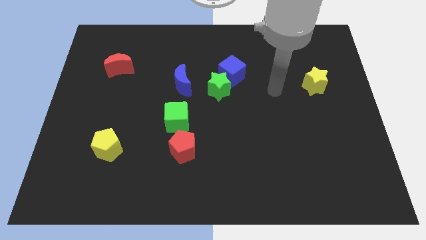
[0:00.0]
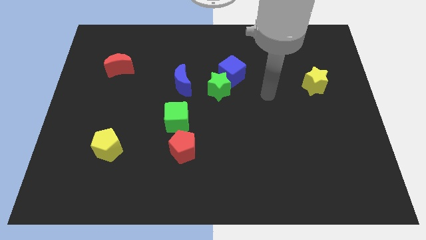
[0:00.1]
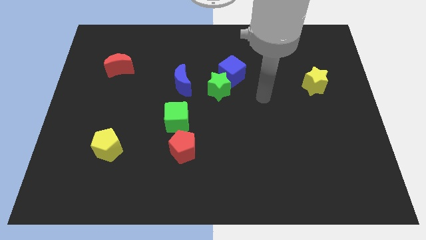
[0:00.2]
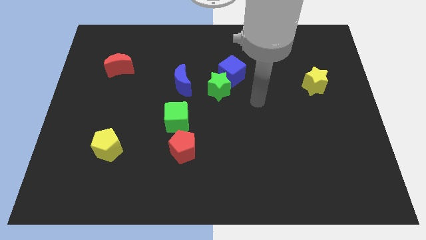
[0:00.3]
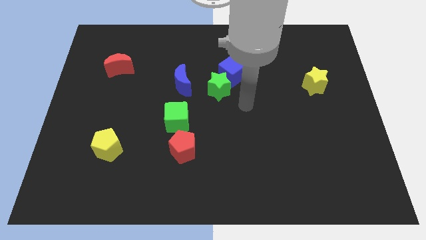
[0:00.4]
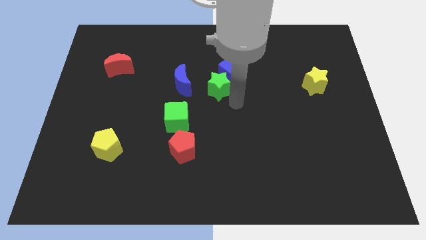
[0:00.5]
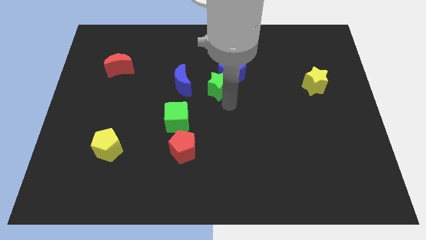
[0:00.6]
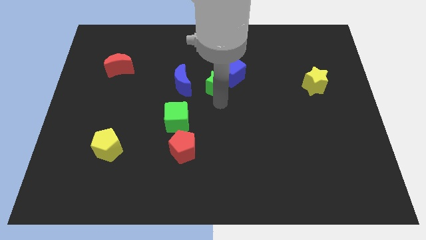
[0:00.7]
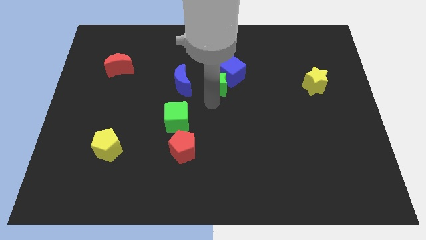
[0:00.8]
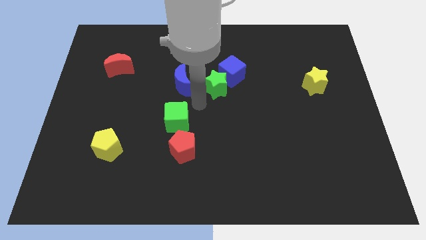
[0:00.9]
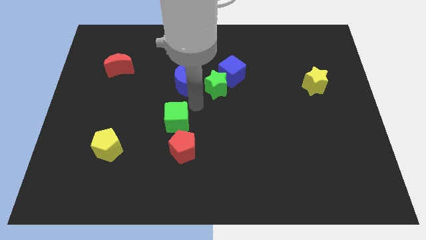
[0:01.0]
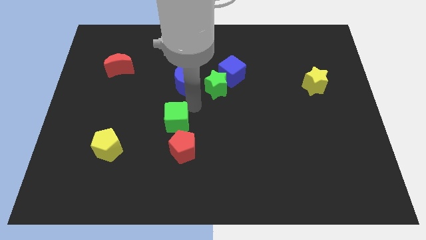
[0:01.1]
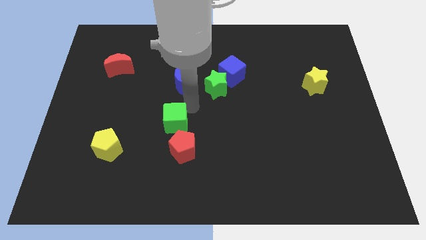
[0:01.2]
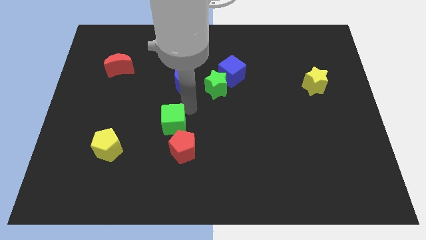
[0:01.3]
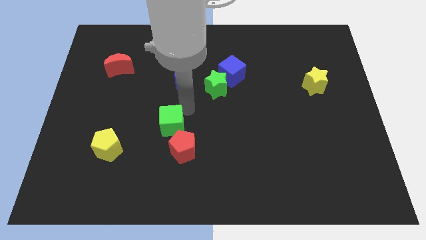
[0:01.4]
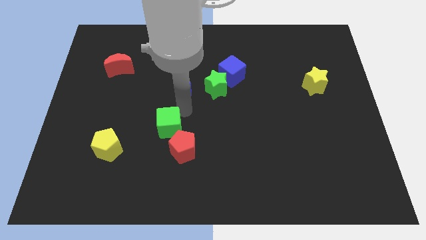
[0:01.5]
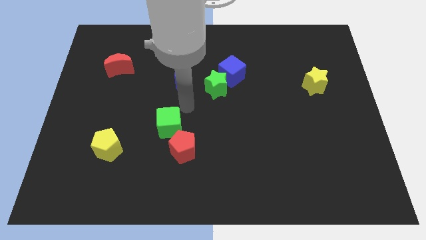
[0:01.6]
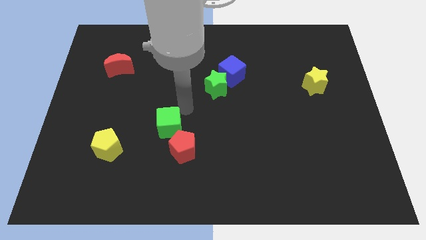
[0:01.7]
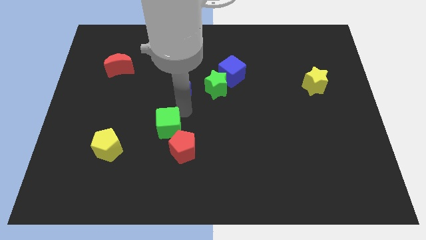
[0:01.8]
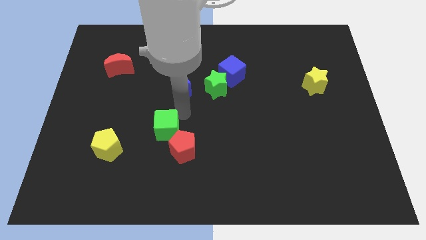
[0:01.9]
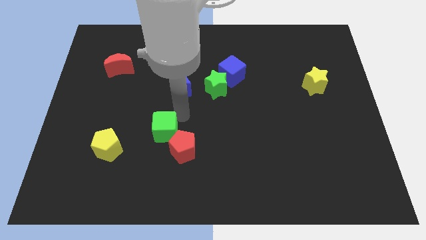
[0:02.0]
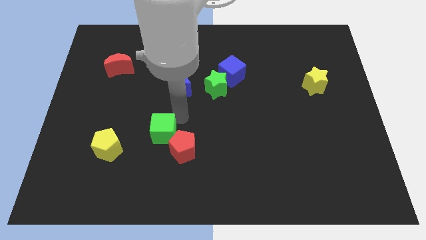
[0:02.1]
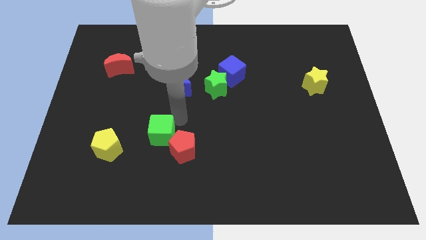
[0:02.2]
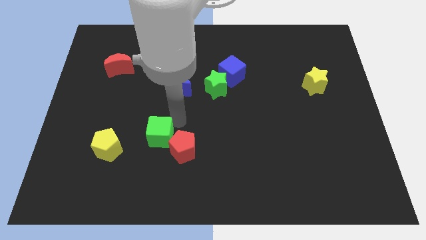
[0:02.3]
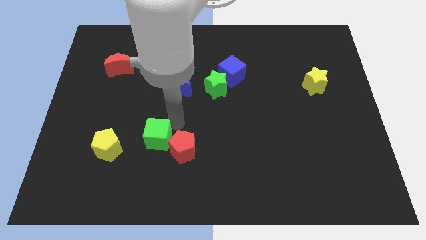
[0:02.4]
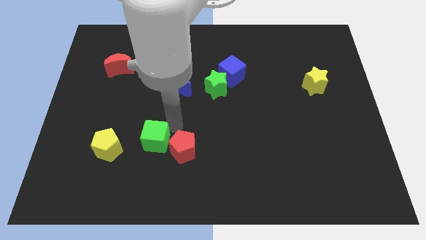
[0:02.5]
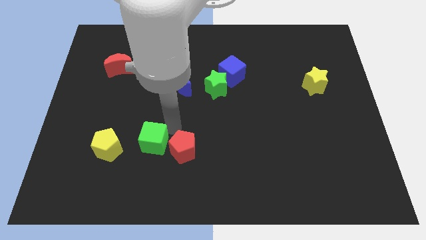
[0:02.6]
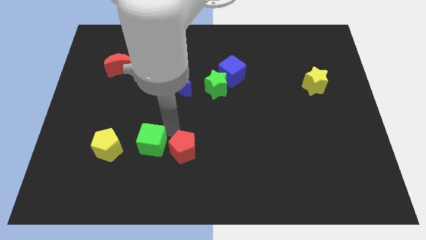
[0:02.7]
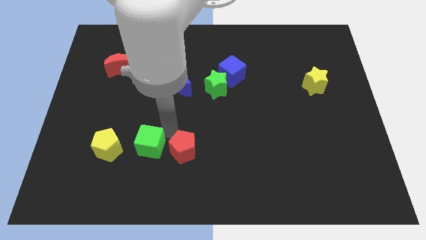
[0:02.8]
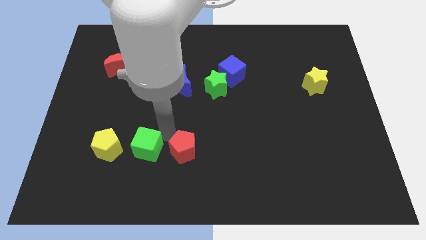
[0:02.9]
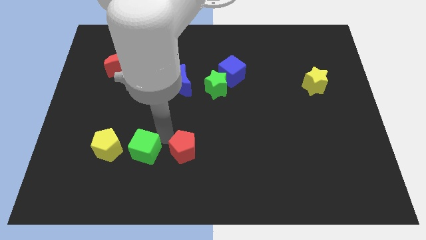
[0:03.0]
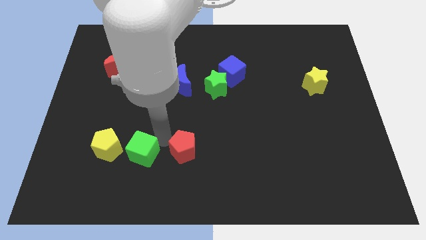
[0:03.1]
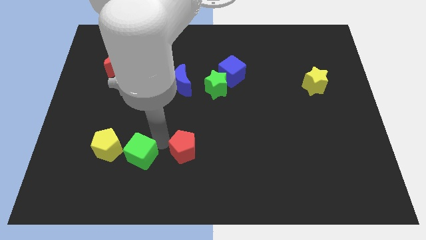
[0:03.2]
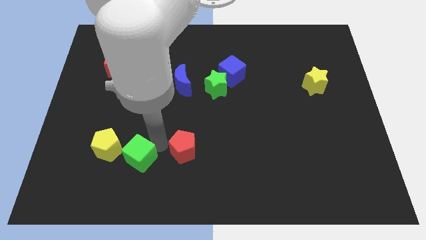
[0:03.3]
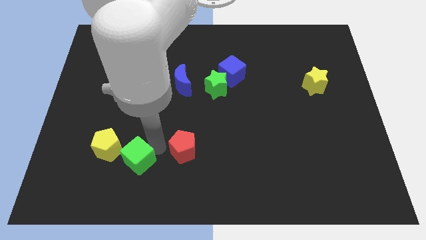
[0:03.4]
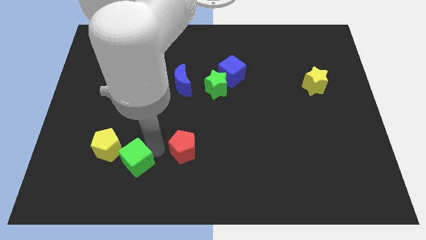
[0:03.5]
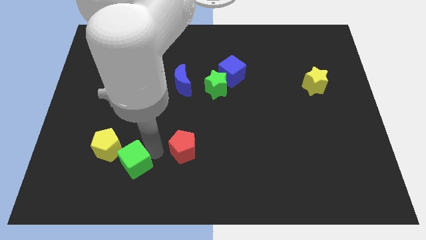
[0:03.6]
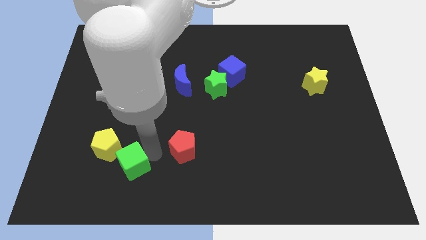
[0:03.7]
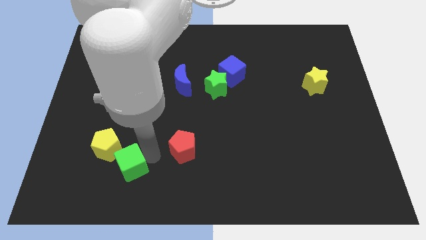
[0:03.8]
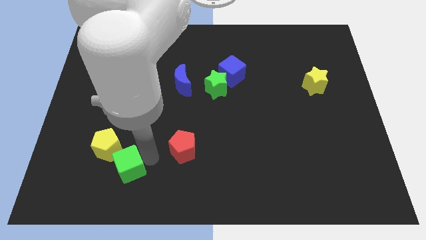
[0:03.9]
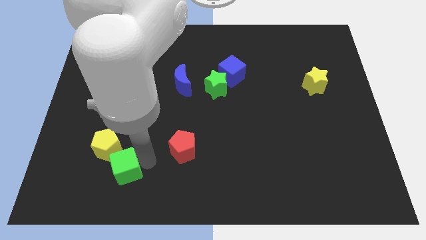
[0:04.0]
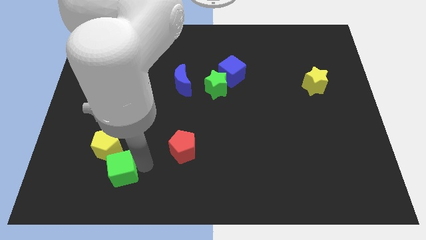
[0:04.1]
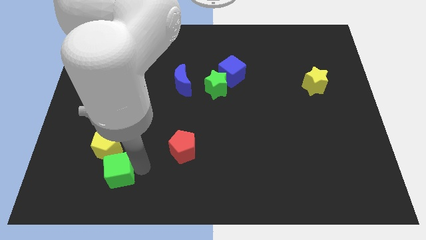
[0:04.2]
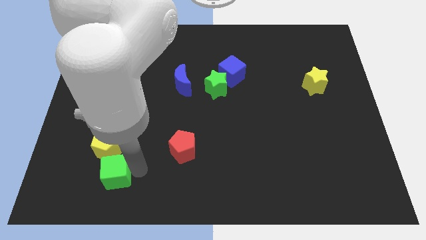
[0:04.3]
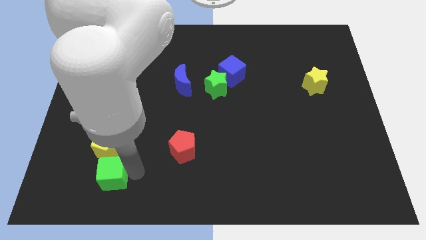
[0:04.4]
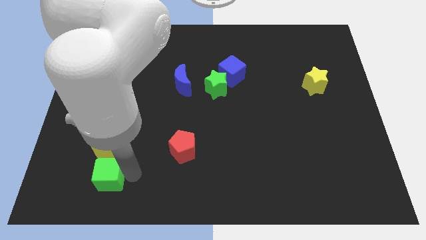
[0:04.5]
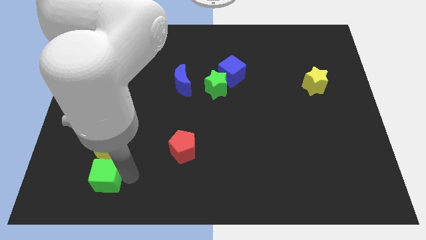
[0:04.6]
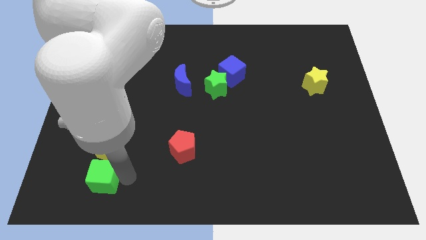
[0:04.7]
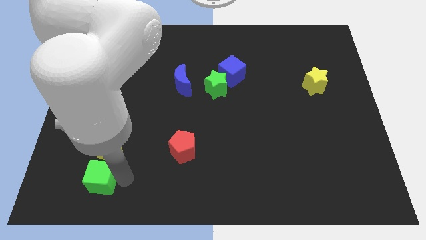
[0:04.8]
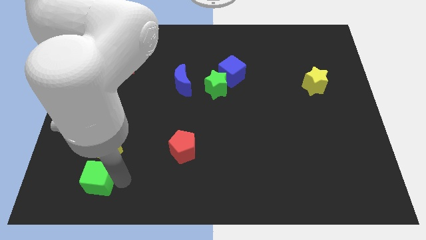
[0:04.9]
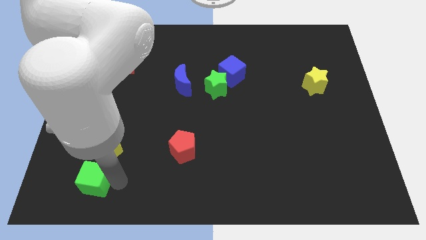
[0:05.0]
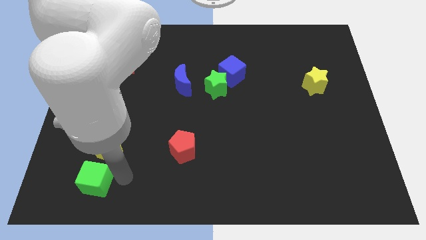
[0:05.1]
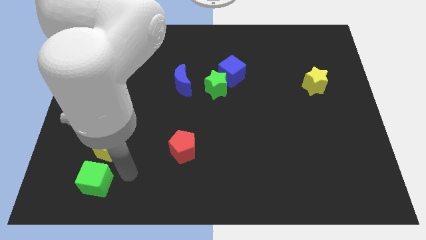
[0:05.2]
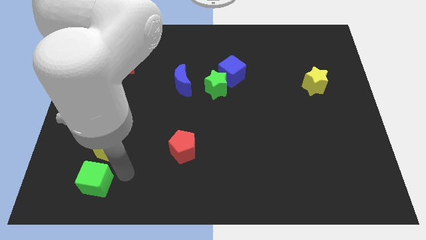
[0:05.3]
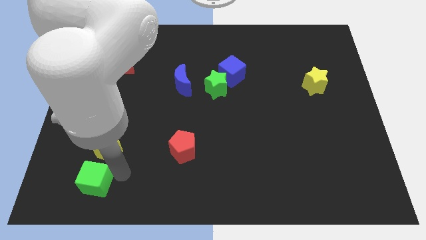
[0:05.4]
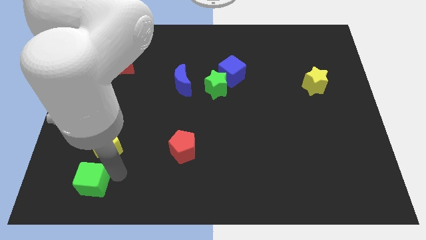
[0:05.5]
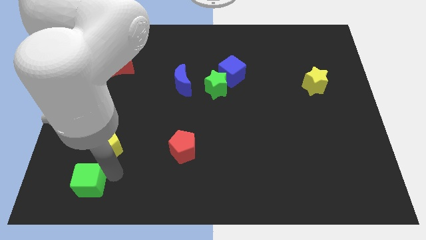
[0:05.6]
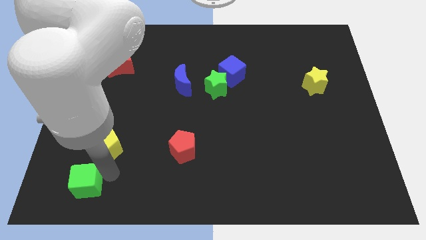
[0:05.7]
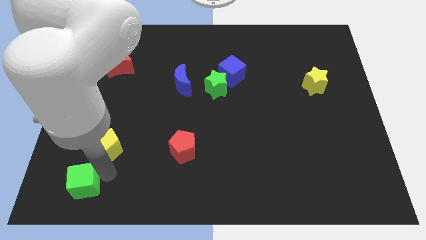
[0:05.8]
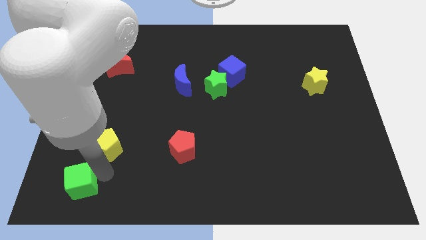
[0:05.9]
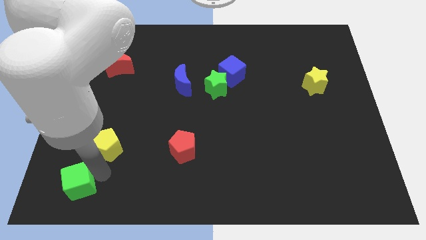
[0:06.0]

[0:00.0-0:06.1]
move the green cube to the bottom left
